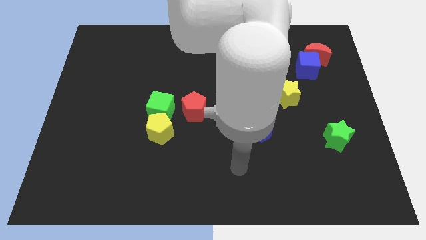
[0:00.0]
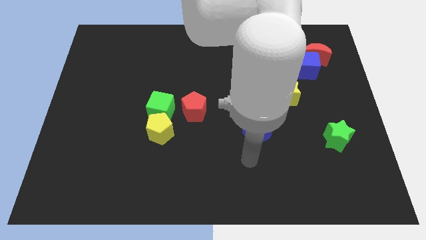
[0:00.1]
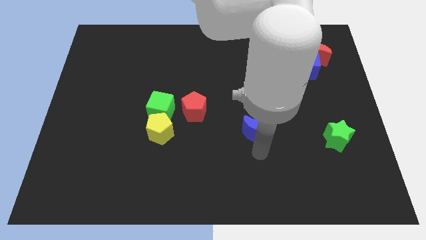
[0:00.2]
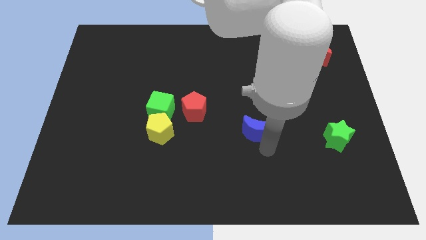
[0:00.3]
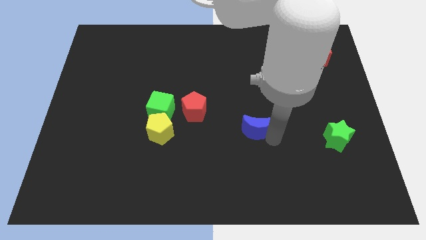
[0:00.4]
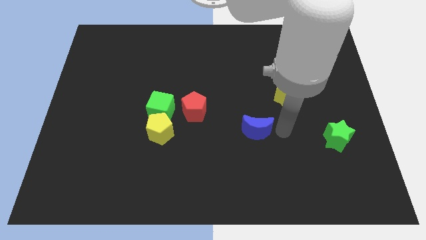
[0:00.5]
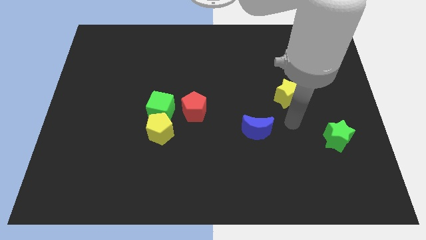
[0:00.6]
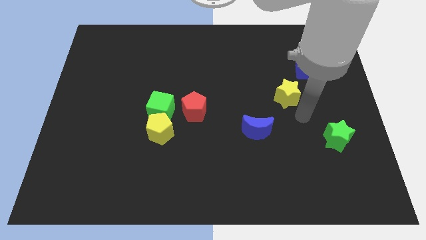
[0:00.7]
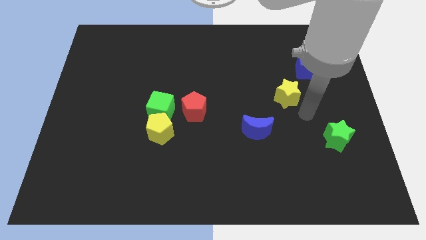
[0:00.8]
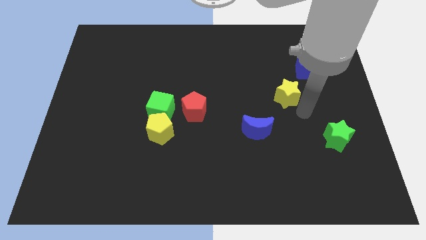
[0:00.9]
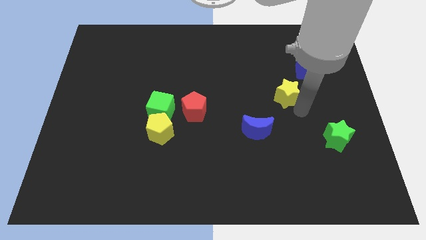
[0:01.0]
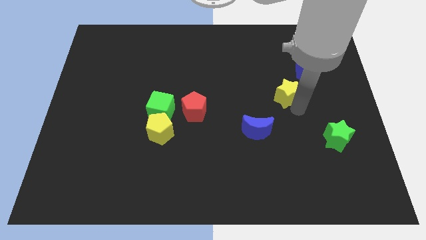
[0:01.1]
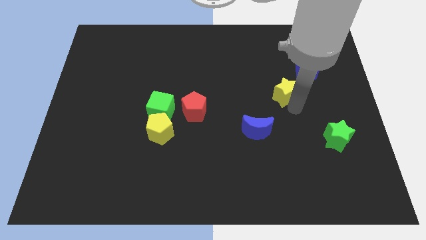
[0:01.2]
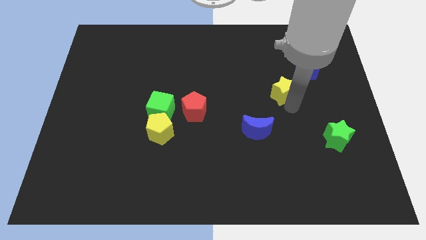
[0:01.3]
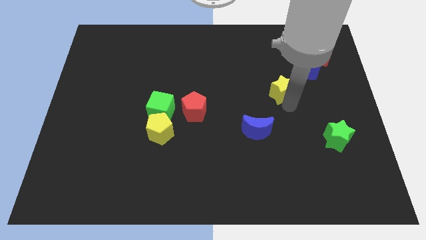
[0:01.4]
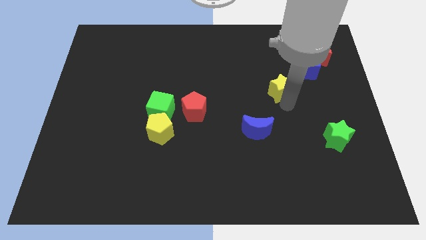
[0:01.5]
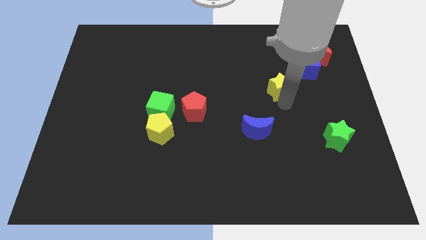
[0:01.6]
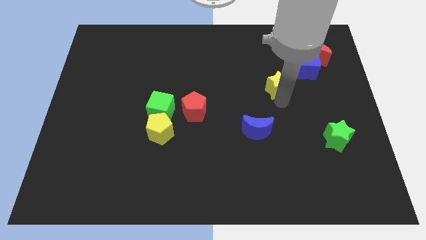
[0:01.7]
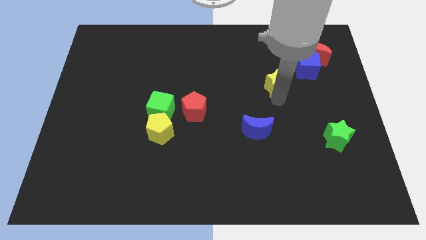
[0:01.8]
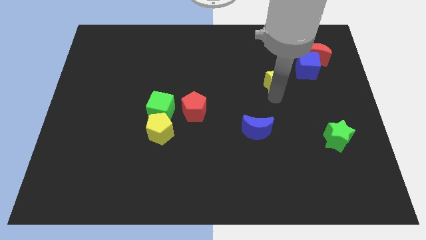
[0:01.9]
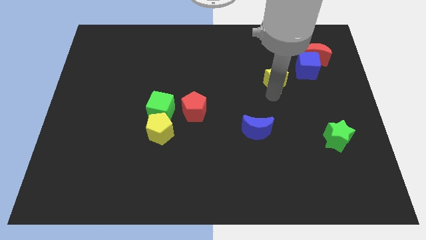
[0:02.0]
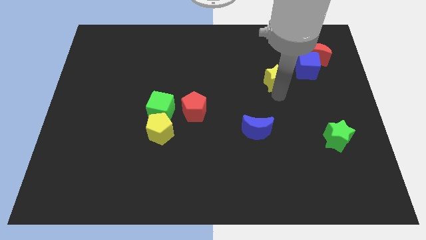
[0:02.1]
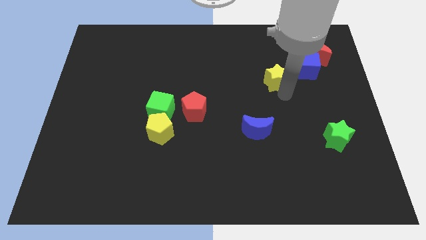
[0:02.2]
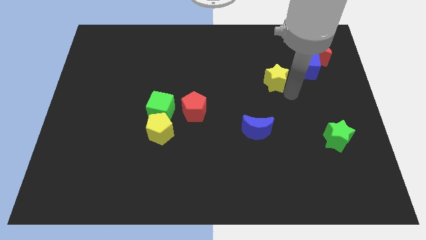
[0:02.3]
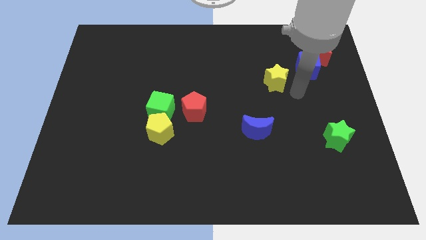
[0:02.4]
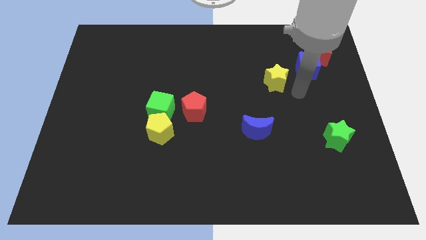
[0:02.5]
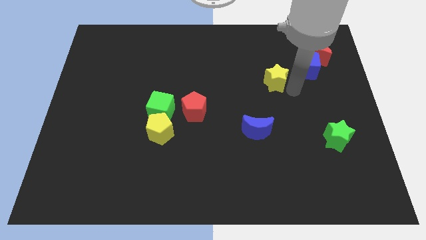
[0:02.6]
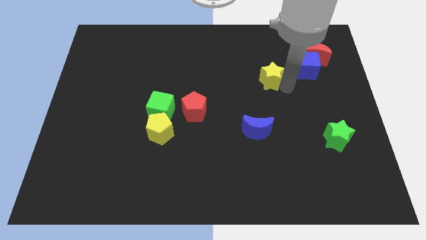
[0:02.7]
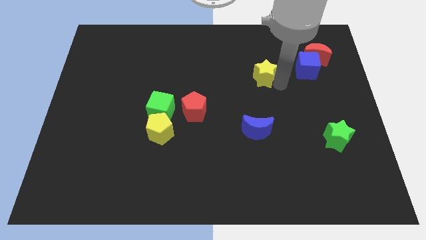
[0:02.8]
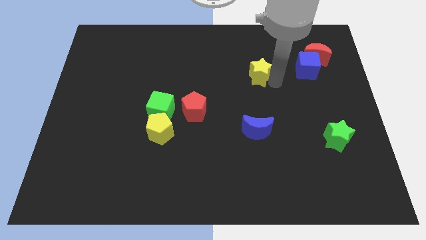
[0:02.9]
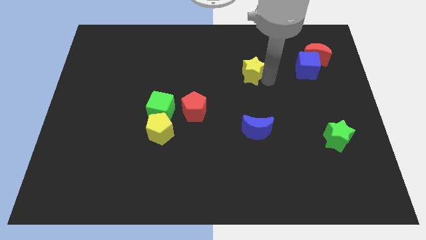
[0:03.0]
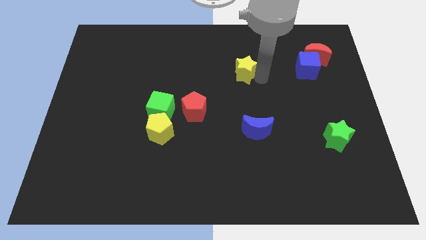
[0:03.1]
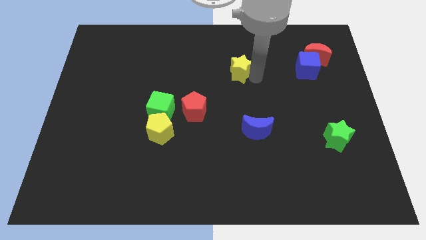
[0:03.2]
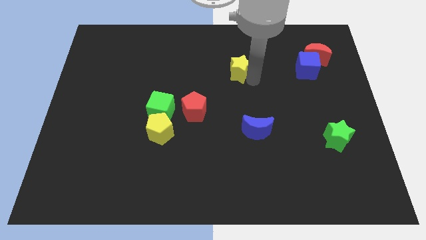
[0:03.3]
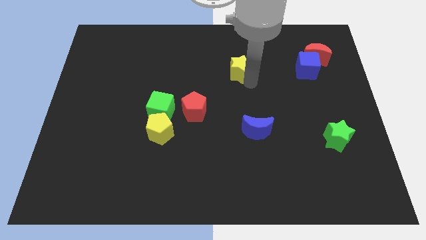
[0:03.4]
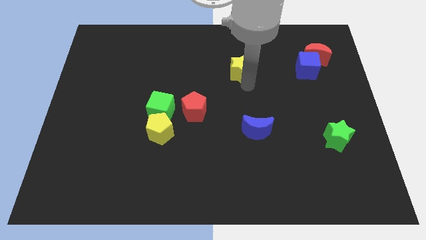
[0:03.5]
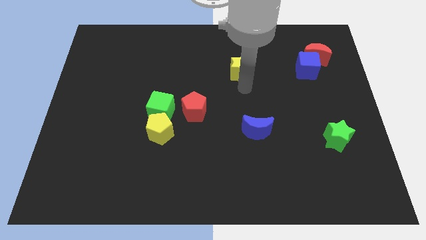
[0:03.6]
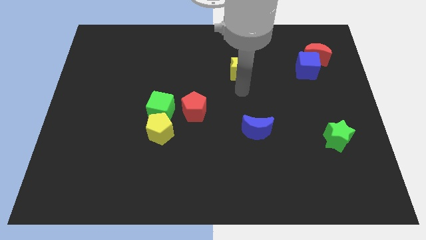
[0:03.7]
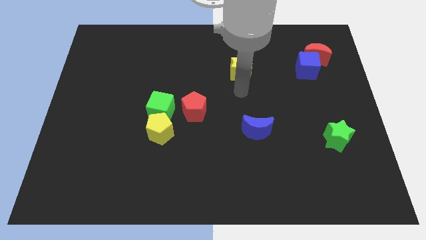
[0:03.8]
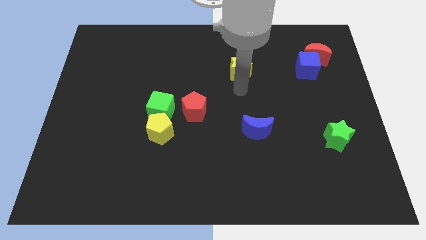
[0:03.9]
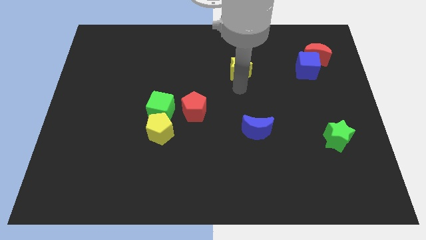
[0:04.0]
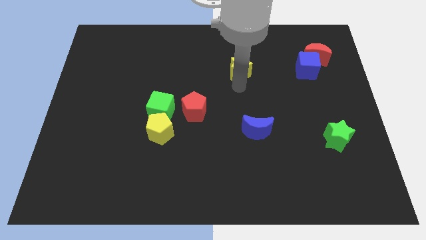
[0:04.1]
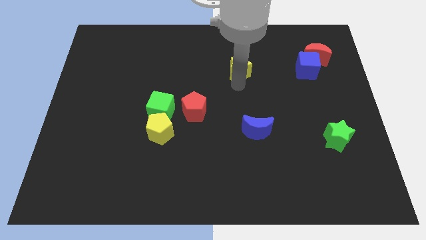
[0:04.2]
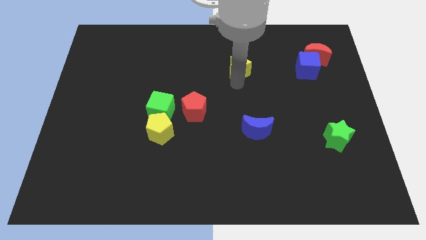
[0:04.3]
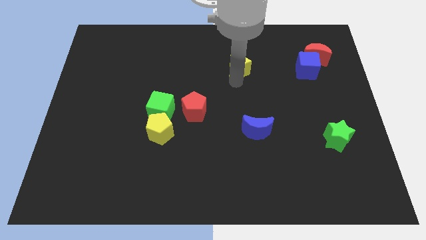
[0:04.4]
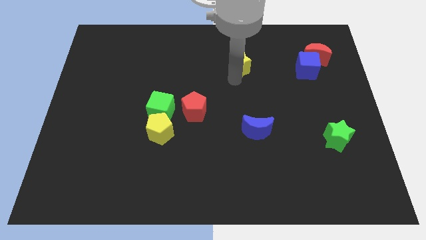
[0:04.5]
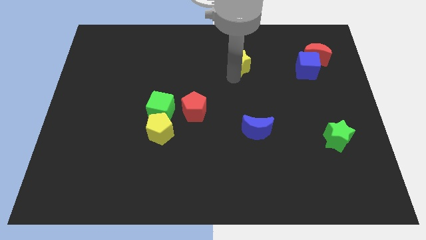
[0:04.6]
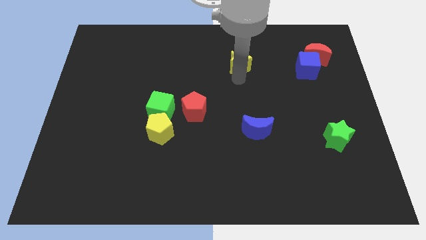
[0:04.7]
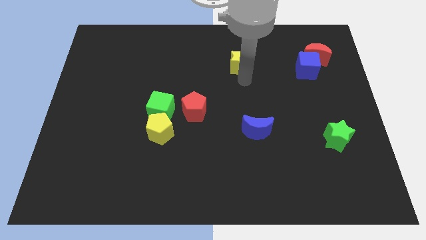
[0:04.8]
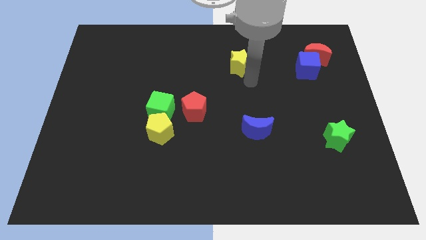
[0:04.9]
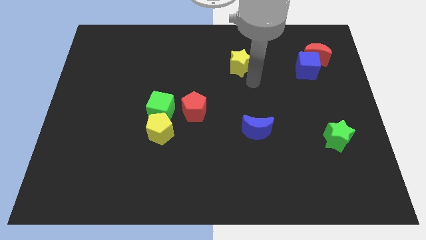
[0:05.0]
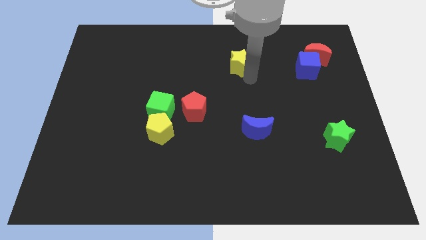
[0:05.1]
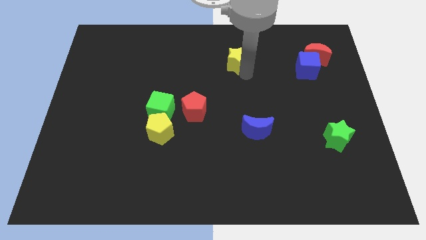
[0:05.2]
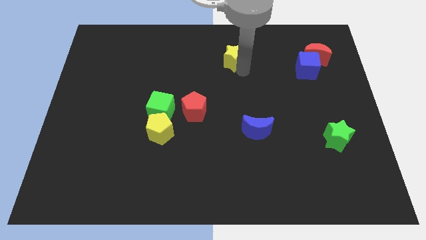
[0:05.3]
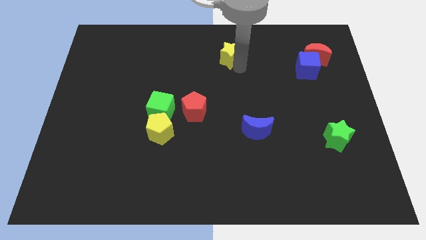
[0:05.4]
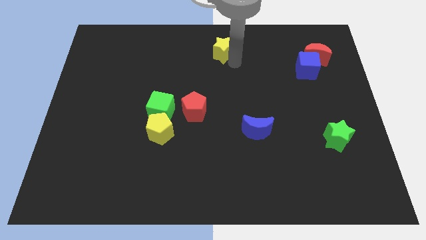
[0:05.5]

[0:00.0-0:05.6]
put the yellow star to the top

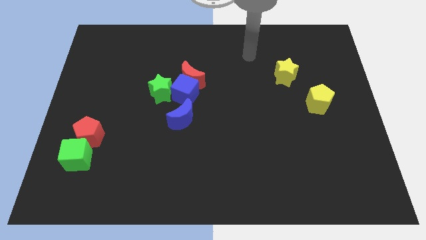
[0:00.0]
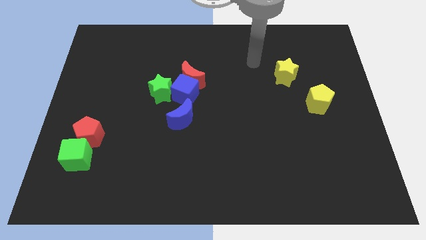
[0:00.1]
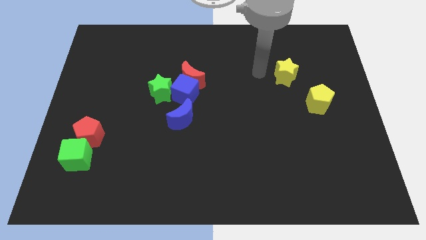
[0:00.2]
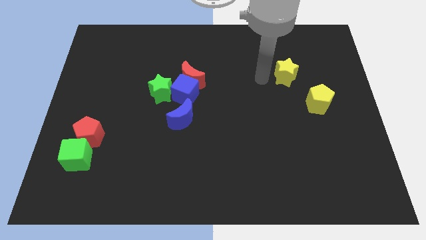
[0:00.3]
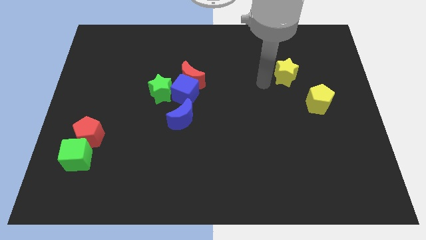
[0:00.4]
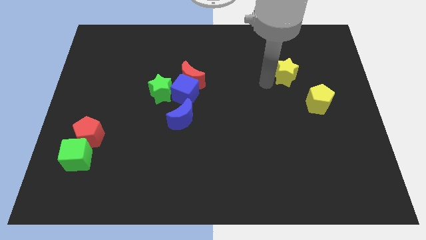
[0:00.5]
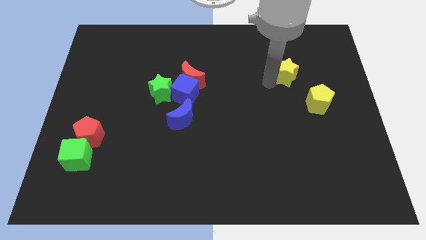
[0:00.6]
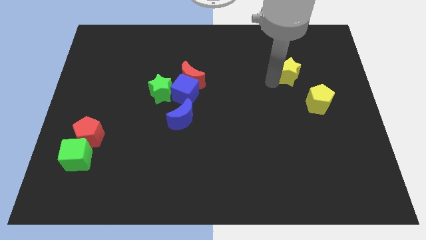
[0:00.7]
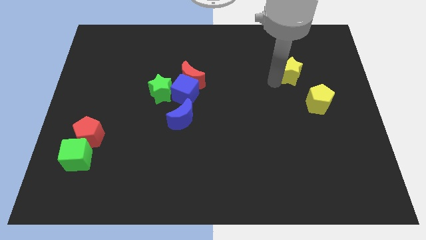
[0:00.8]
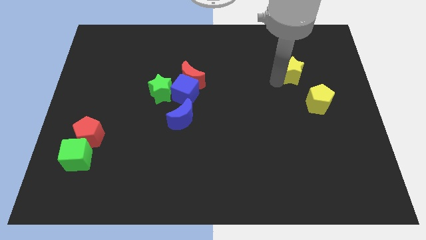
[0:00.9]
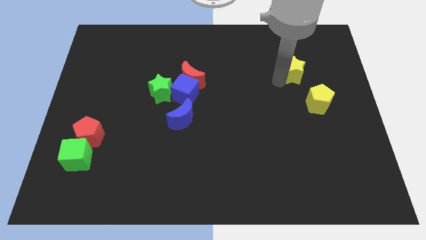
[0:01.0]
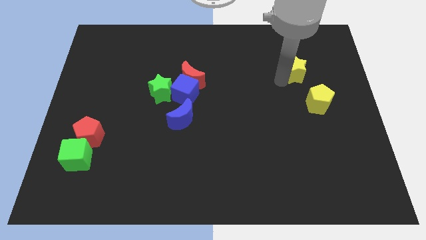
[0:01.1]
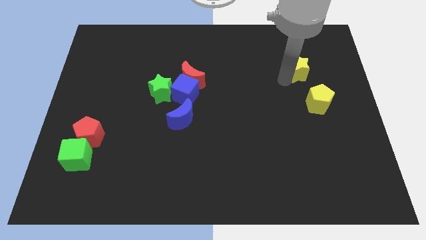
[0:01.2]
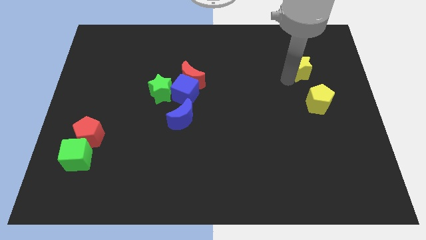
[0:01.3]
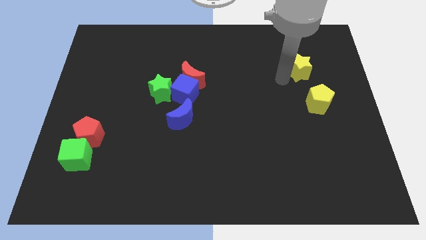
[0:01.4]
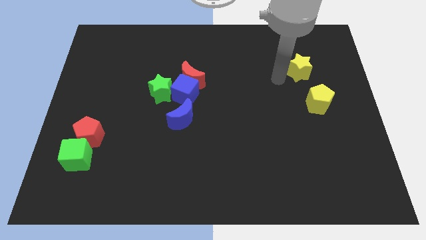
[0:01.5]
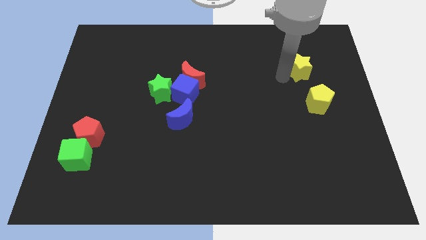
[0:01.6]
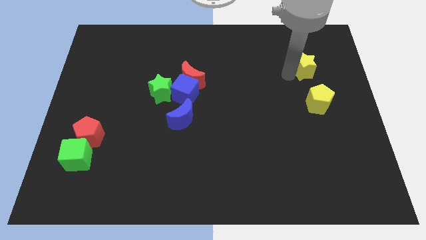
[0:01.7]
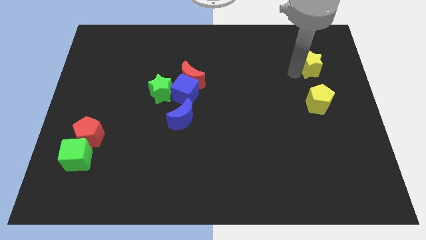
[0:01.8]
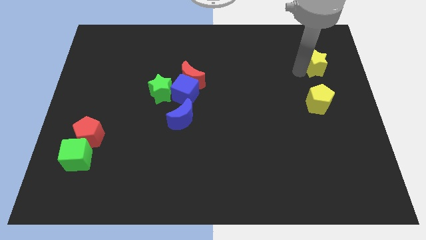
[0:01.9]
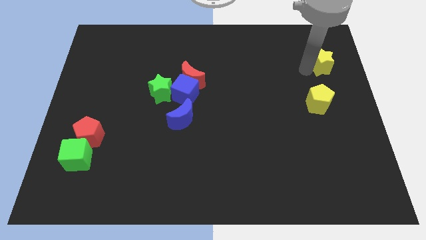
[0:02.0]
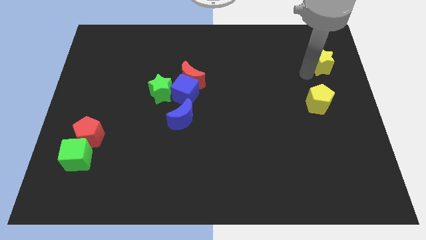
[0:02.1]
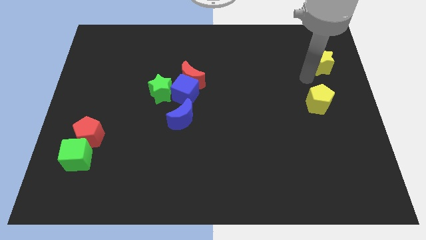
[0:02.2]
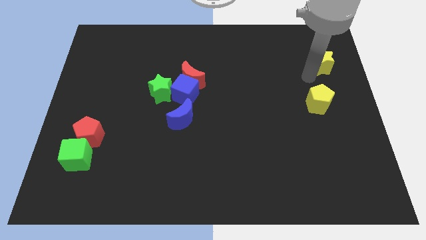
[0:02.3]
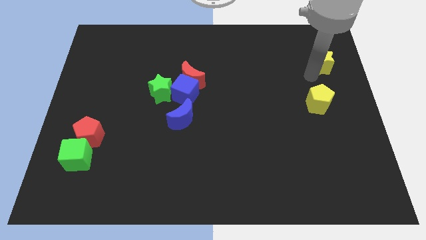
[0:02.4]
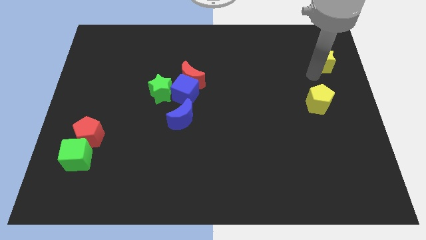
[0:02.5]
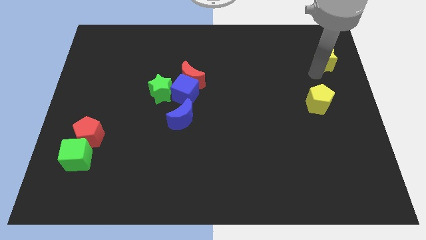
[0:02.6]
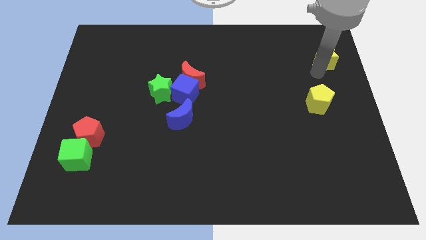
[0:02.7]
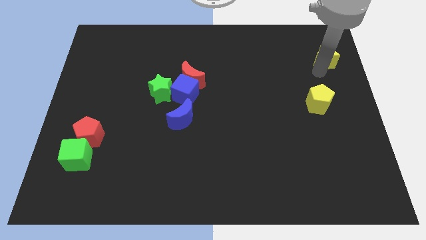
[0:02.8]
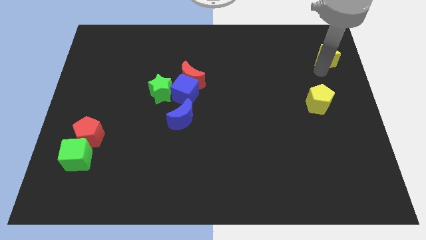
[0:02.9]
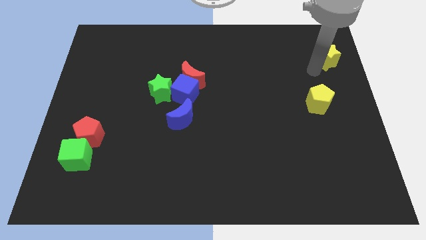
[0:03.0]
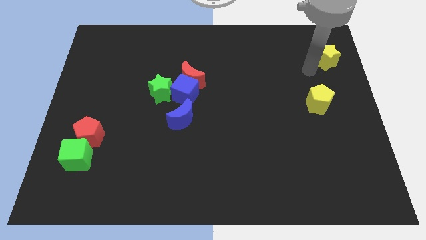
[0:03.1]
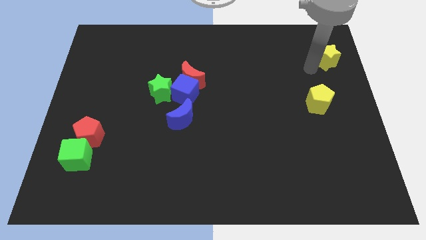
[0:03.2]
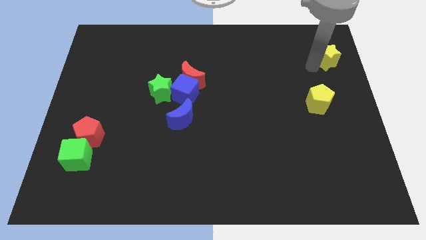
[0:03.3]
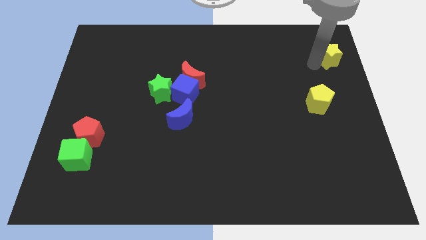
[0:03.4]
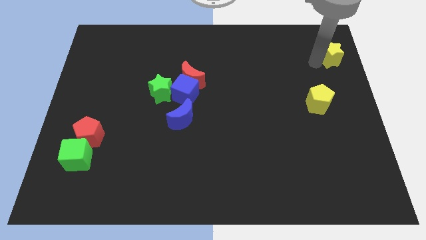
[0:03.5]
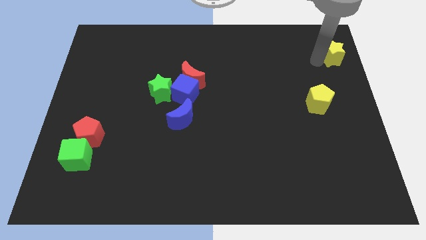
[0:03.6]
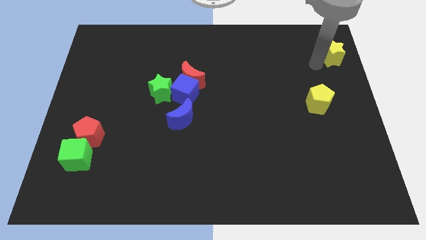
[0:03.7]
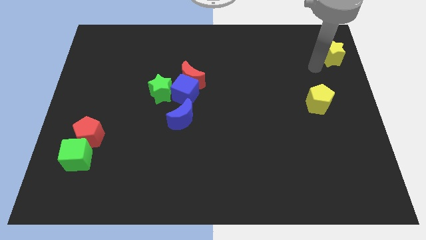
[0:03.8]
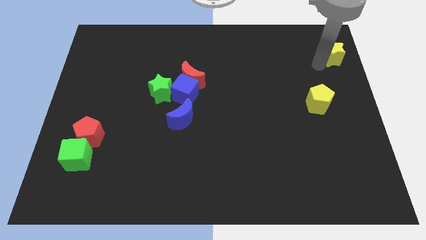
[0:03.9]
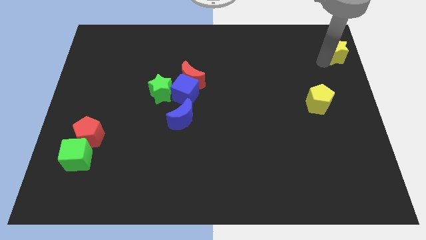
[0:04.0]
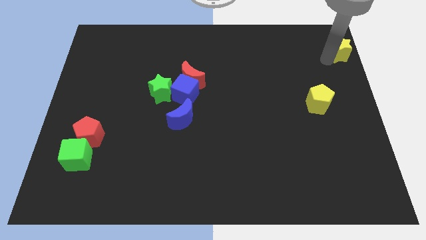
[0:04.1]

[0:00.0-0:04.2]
put the yellow star to the top right corner
